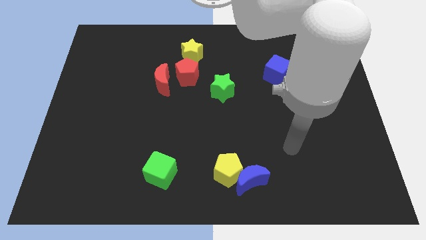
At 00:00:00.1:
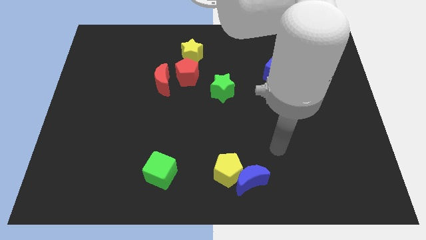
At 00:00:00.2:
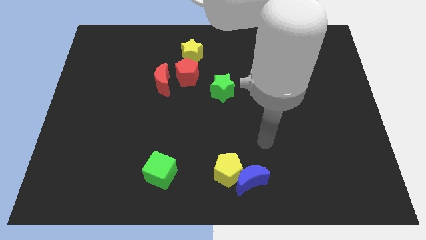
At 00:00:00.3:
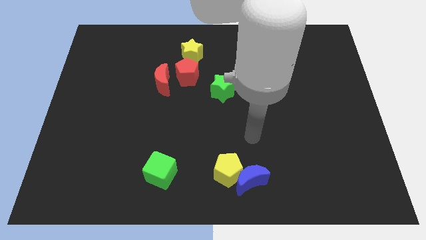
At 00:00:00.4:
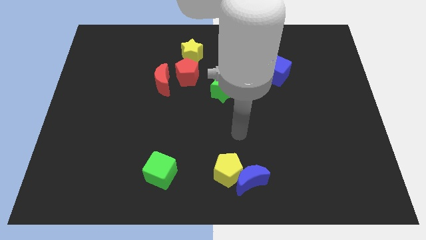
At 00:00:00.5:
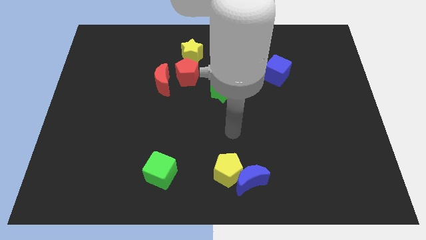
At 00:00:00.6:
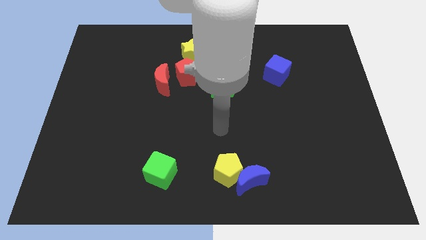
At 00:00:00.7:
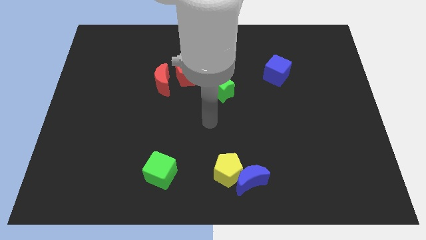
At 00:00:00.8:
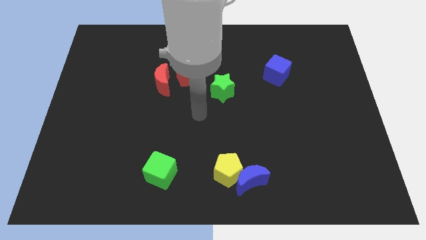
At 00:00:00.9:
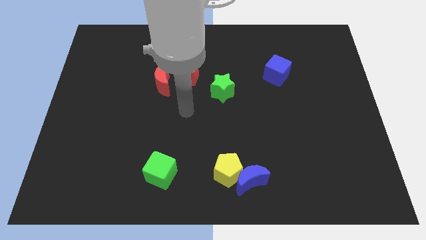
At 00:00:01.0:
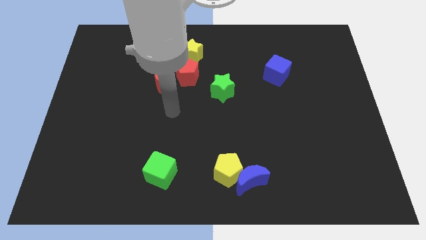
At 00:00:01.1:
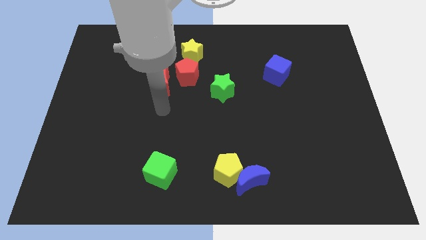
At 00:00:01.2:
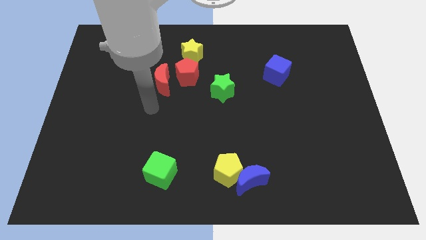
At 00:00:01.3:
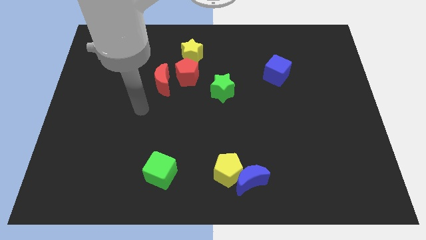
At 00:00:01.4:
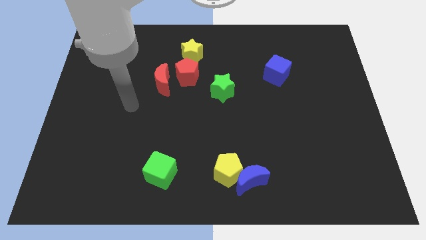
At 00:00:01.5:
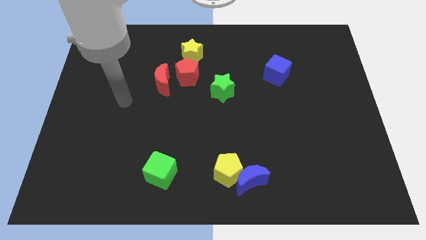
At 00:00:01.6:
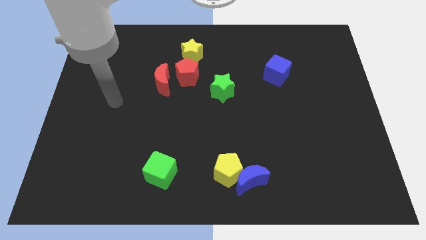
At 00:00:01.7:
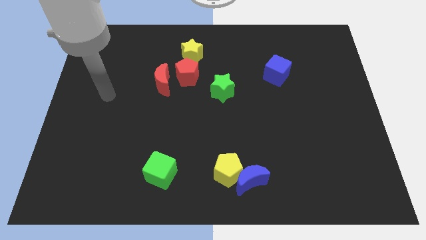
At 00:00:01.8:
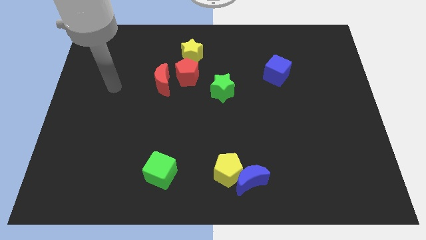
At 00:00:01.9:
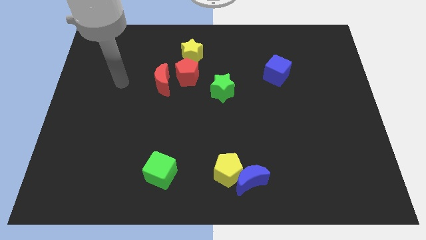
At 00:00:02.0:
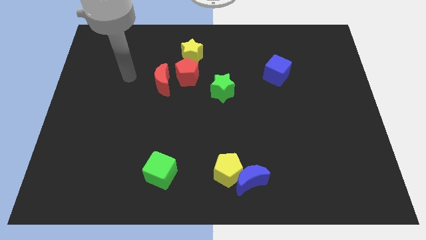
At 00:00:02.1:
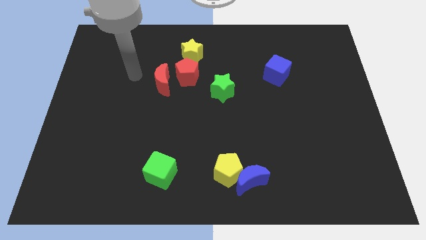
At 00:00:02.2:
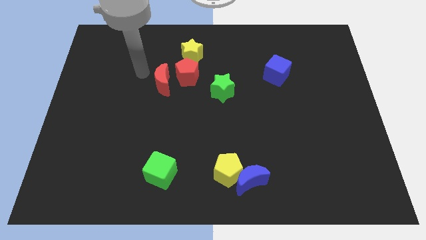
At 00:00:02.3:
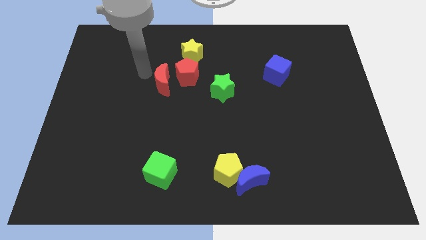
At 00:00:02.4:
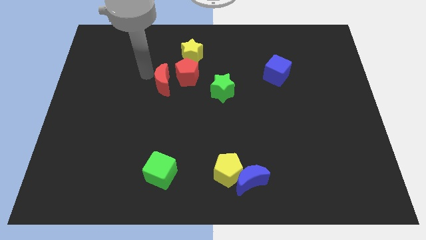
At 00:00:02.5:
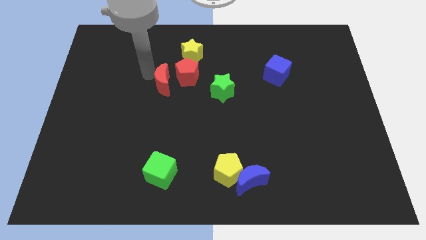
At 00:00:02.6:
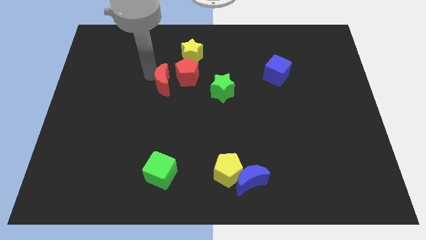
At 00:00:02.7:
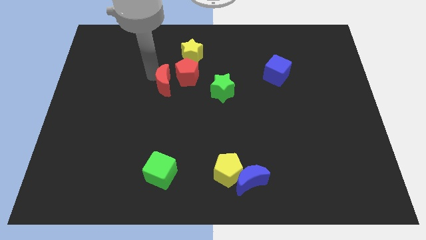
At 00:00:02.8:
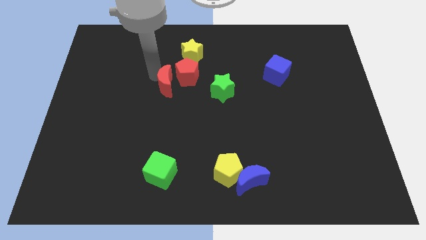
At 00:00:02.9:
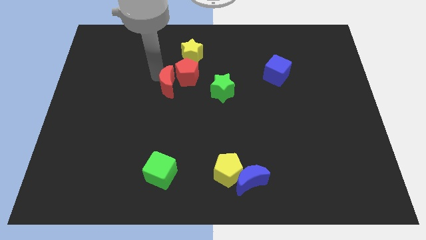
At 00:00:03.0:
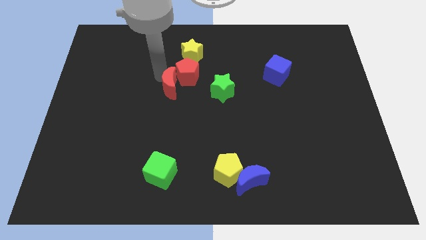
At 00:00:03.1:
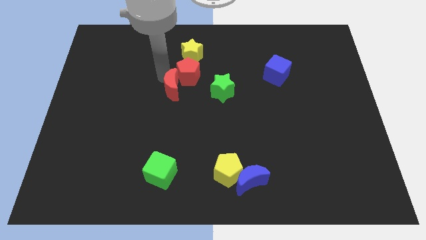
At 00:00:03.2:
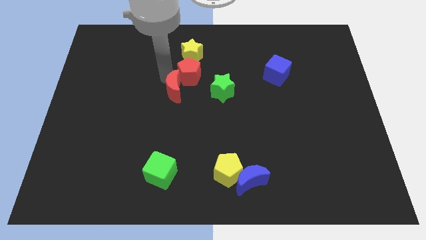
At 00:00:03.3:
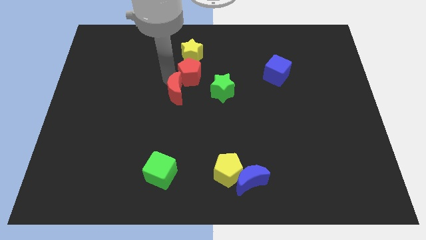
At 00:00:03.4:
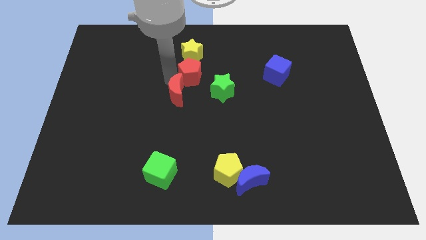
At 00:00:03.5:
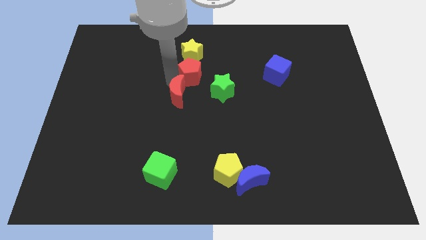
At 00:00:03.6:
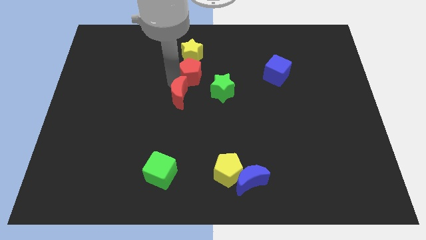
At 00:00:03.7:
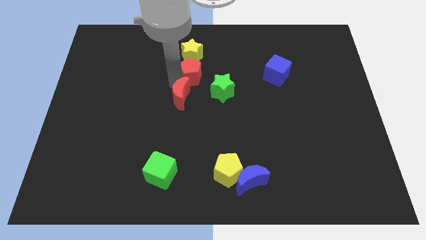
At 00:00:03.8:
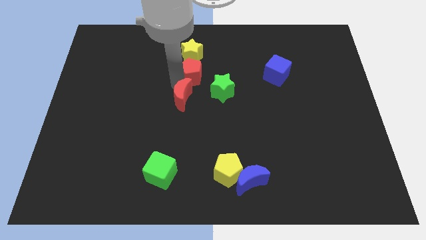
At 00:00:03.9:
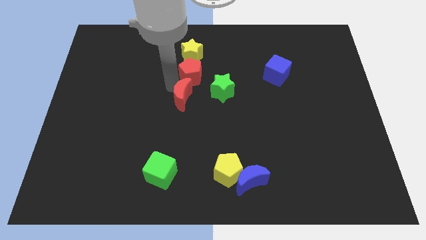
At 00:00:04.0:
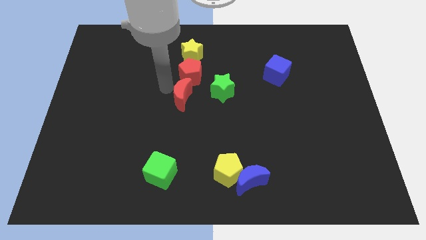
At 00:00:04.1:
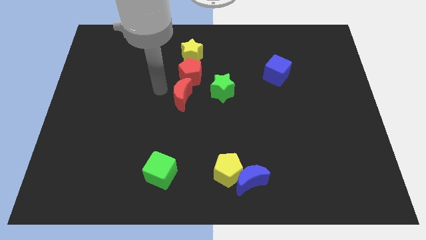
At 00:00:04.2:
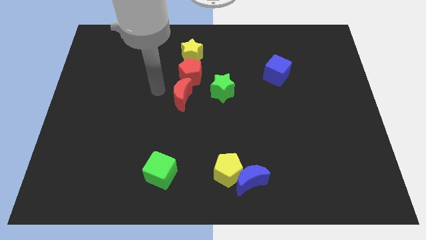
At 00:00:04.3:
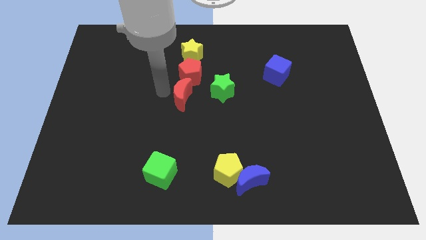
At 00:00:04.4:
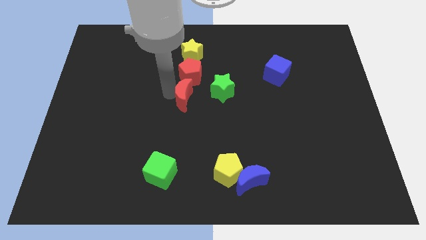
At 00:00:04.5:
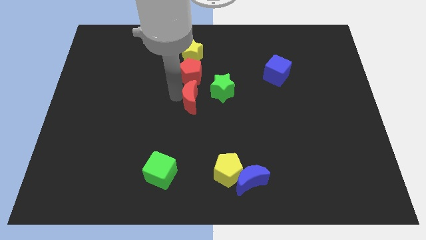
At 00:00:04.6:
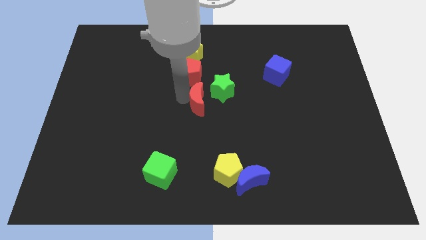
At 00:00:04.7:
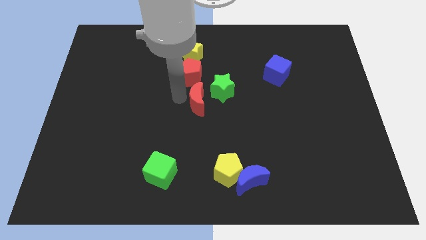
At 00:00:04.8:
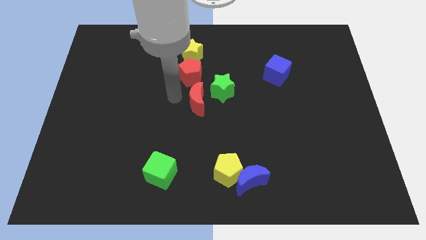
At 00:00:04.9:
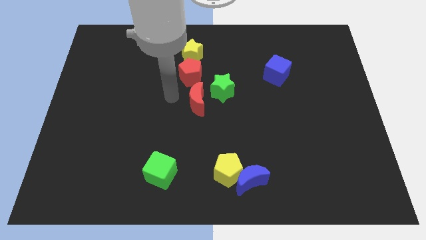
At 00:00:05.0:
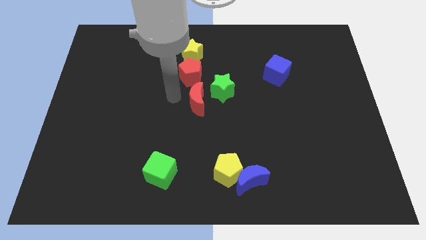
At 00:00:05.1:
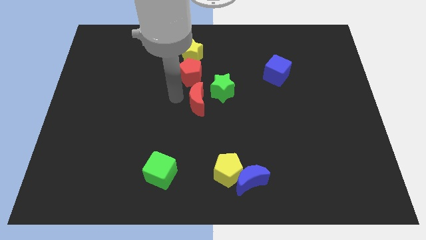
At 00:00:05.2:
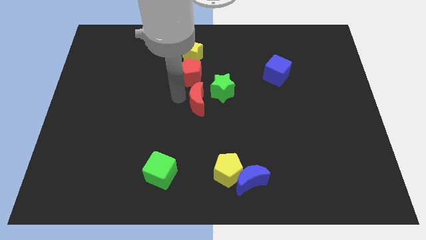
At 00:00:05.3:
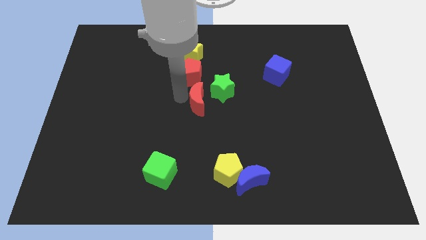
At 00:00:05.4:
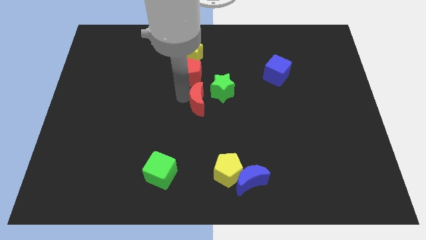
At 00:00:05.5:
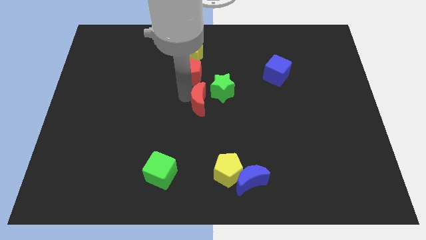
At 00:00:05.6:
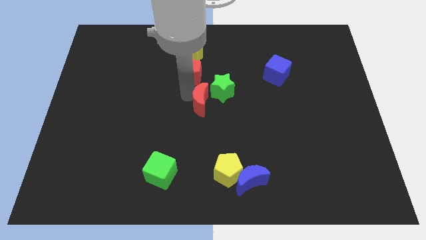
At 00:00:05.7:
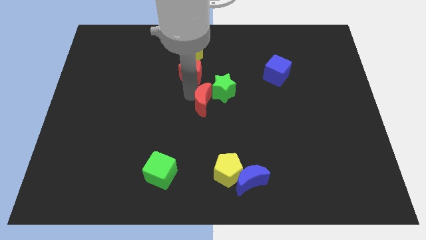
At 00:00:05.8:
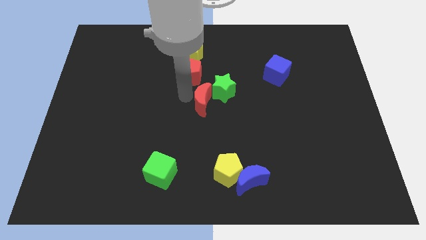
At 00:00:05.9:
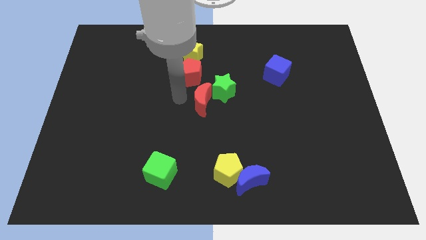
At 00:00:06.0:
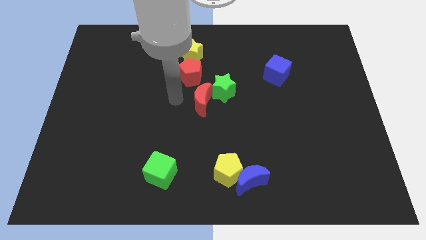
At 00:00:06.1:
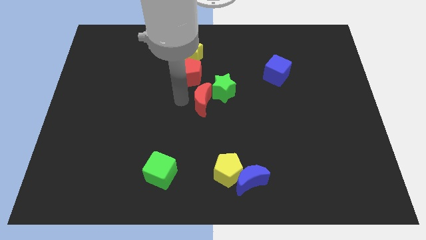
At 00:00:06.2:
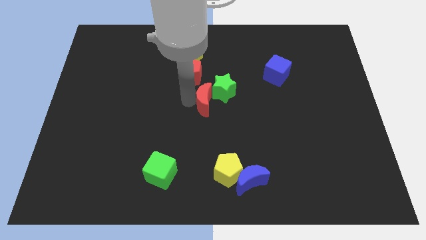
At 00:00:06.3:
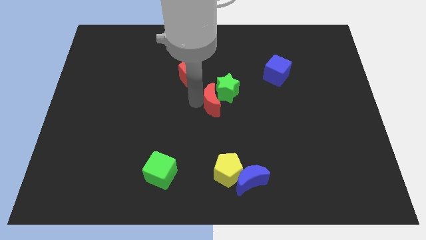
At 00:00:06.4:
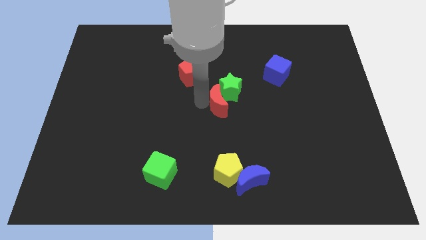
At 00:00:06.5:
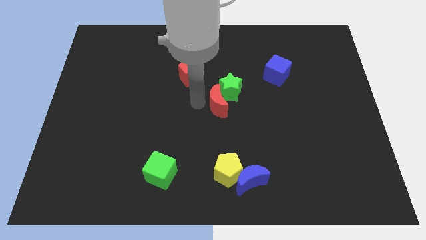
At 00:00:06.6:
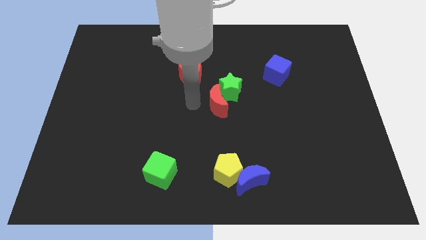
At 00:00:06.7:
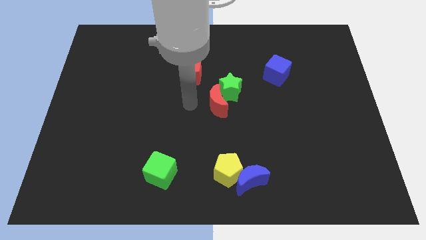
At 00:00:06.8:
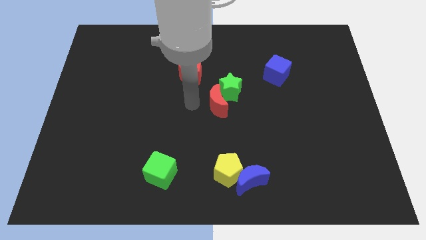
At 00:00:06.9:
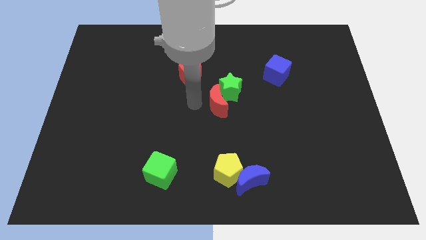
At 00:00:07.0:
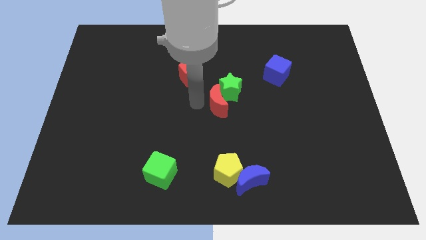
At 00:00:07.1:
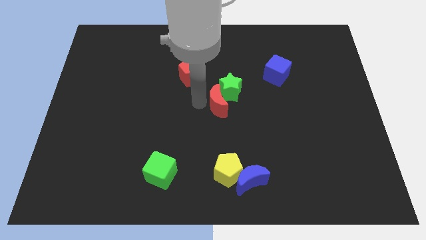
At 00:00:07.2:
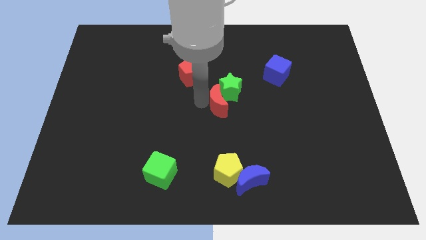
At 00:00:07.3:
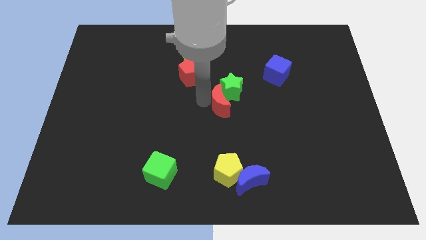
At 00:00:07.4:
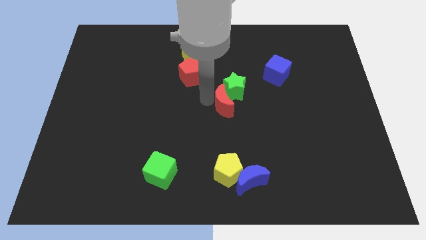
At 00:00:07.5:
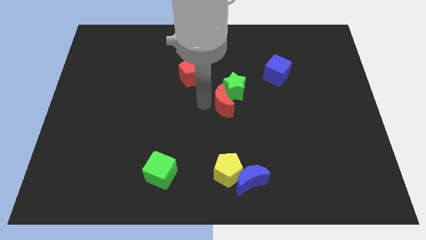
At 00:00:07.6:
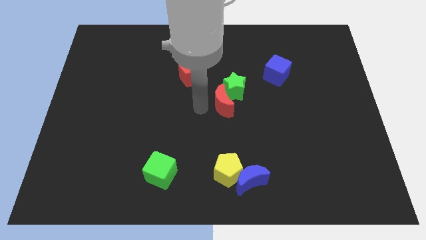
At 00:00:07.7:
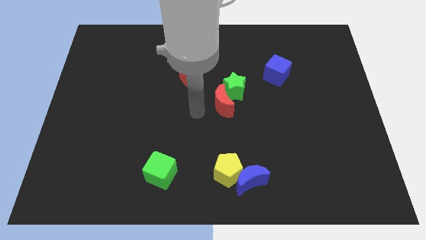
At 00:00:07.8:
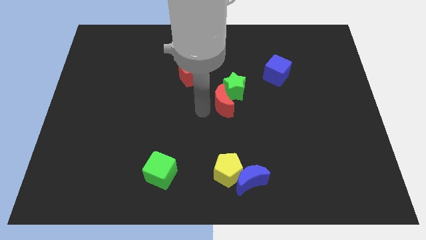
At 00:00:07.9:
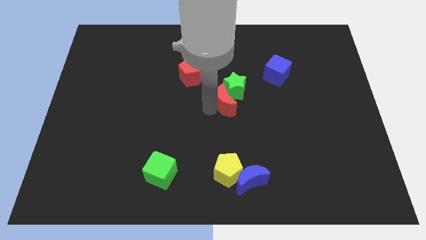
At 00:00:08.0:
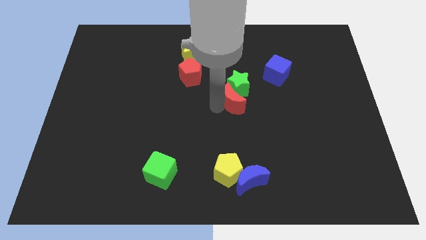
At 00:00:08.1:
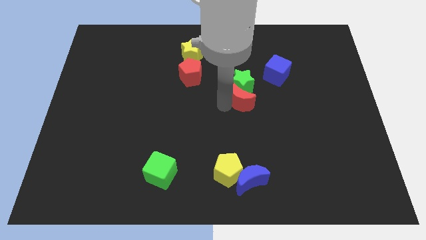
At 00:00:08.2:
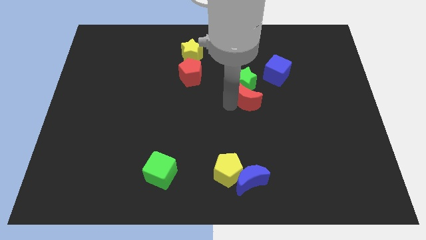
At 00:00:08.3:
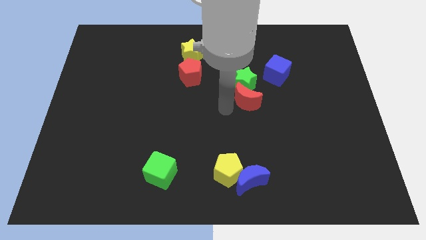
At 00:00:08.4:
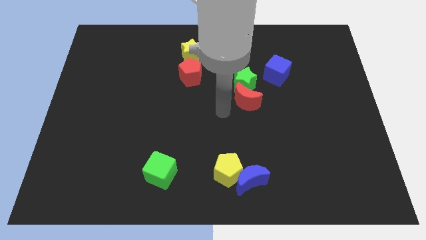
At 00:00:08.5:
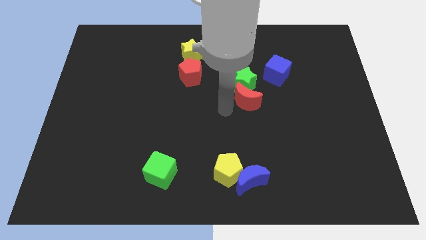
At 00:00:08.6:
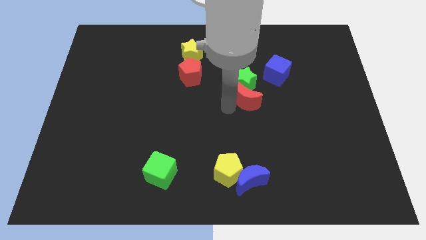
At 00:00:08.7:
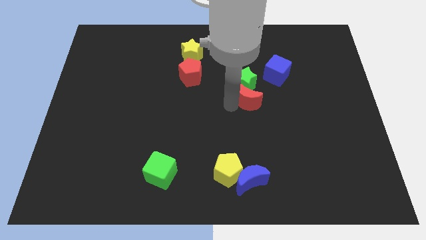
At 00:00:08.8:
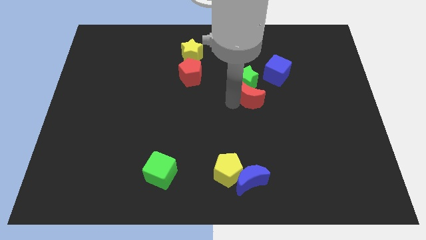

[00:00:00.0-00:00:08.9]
move the red moon to the right
